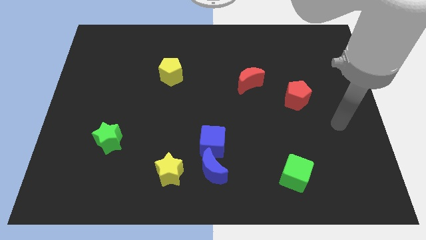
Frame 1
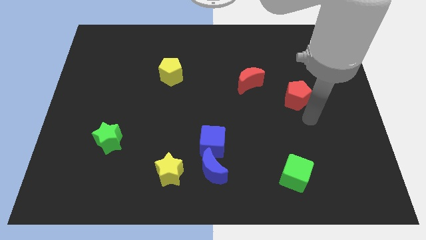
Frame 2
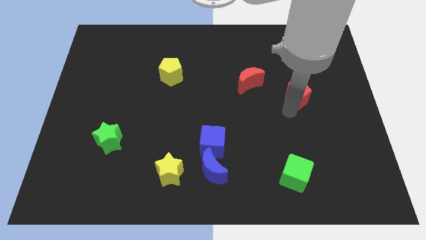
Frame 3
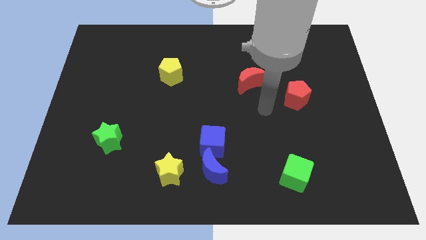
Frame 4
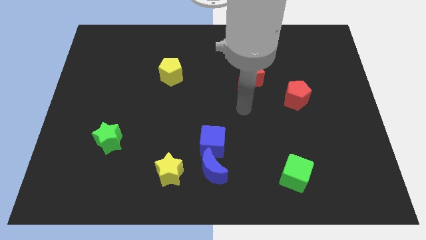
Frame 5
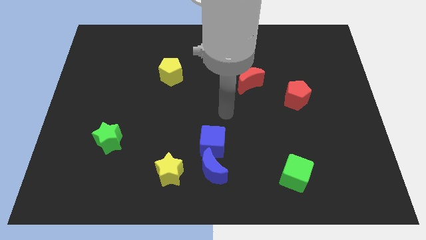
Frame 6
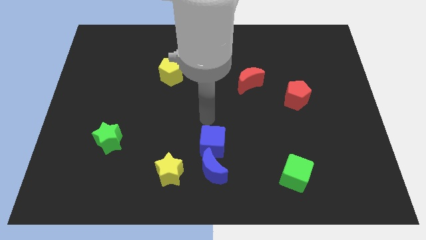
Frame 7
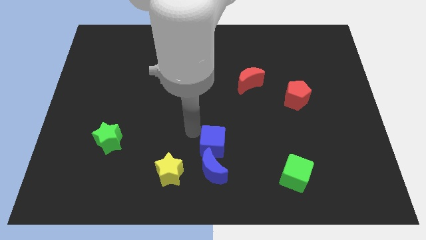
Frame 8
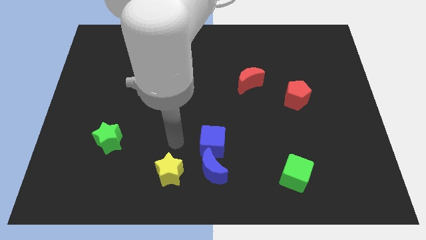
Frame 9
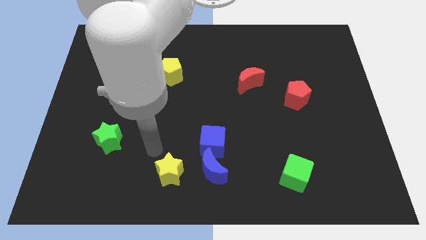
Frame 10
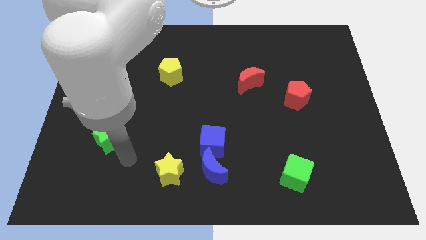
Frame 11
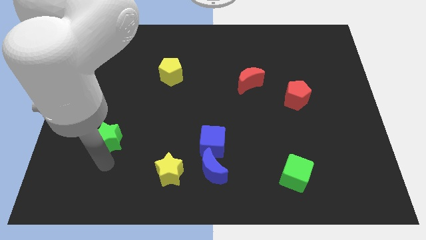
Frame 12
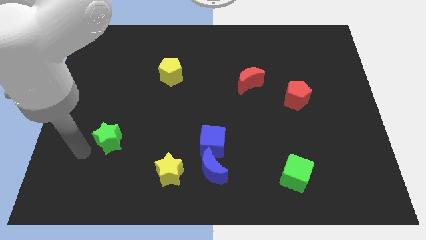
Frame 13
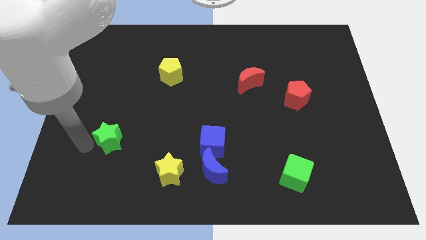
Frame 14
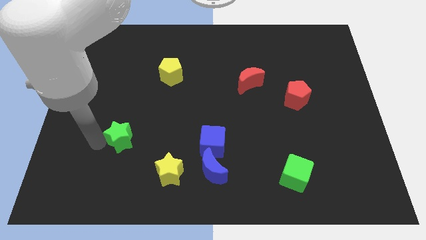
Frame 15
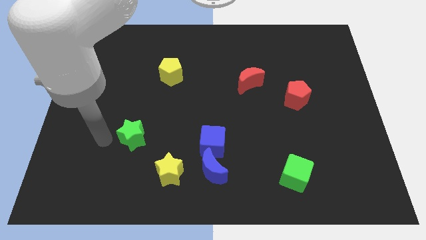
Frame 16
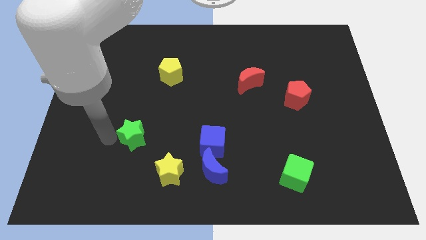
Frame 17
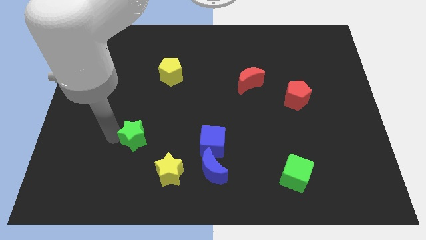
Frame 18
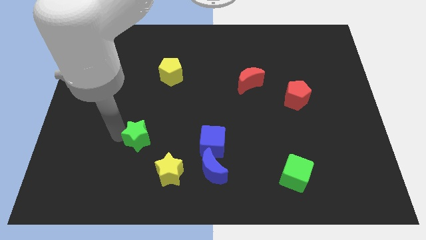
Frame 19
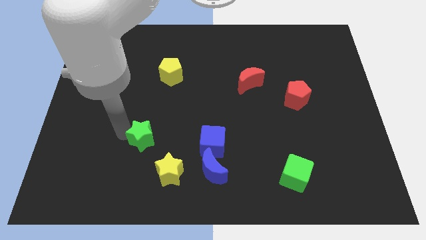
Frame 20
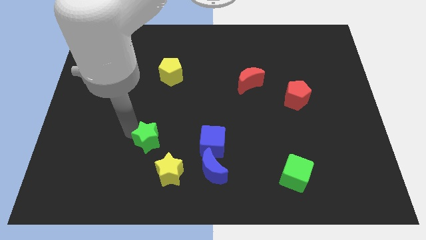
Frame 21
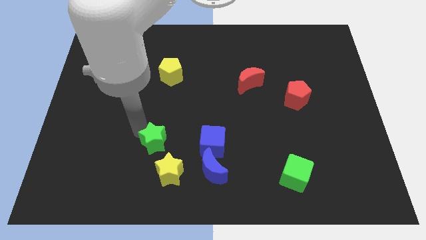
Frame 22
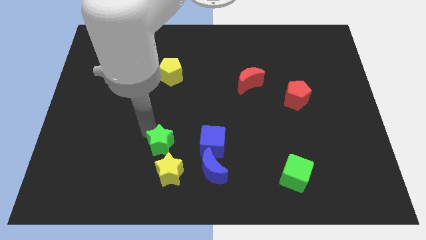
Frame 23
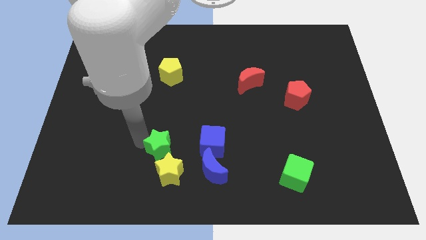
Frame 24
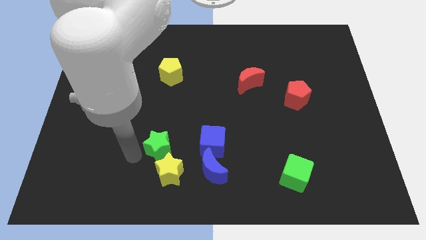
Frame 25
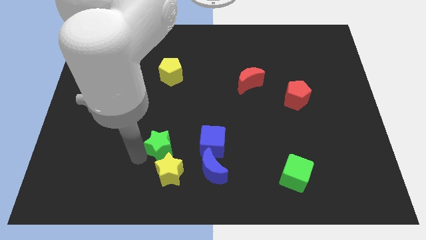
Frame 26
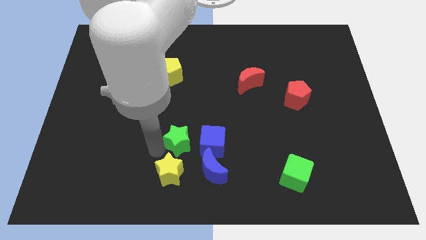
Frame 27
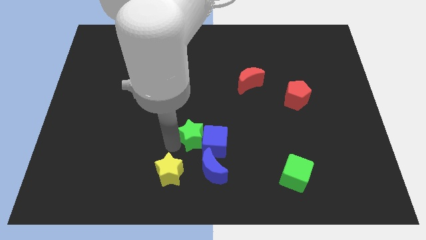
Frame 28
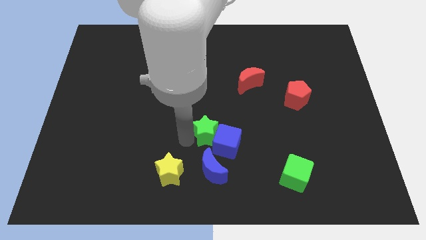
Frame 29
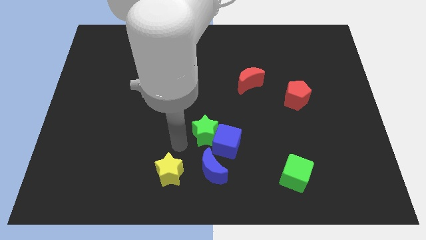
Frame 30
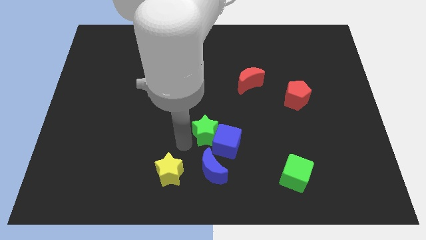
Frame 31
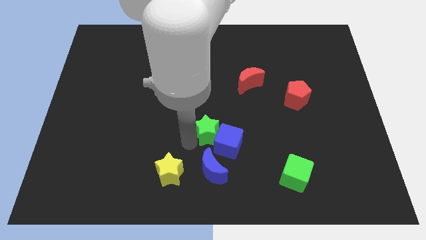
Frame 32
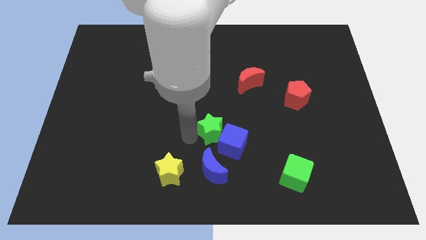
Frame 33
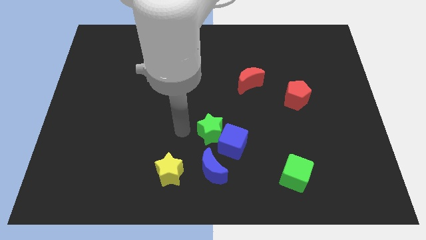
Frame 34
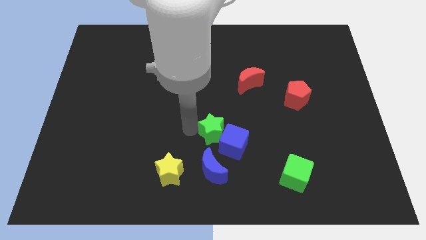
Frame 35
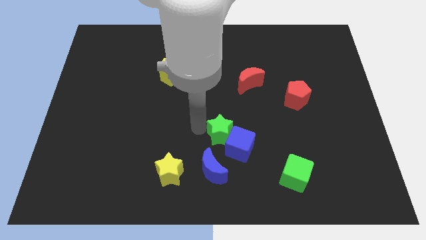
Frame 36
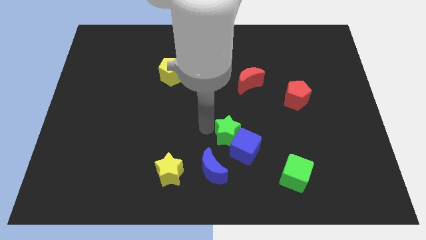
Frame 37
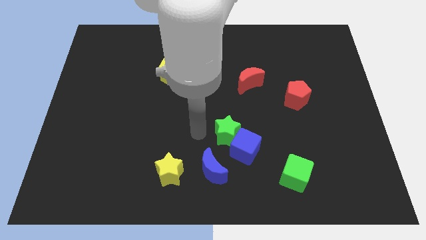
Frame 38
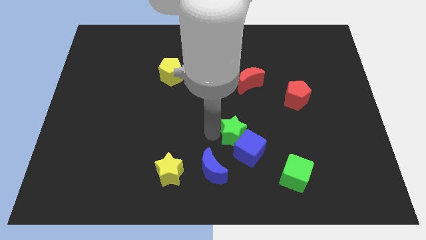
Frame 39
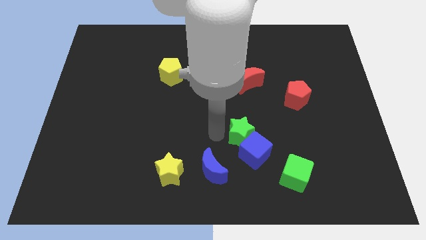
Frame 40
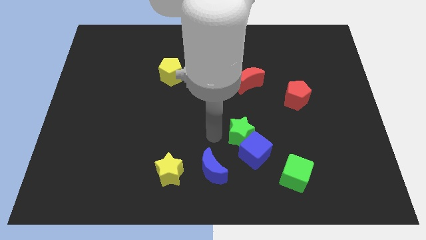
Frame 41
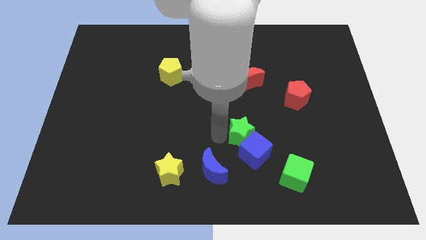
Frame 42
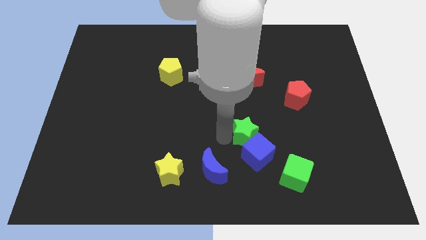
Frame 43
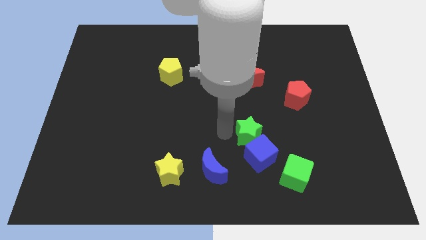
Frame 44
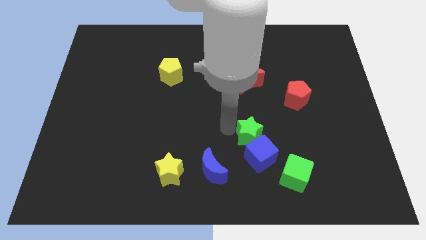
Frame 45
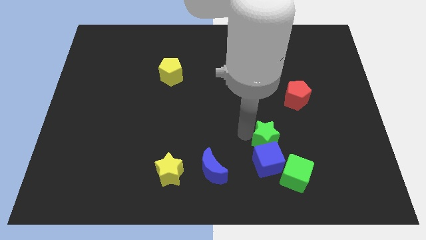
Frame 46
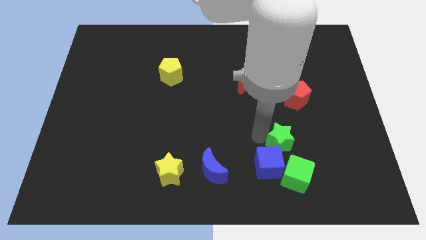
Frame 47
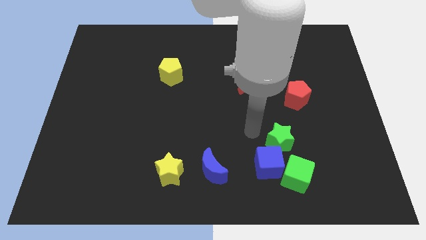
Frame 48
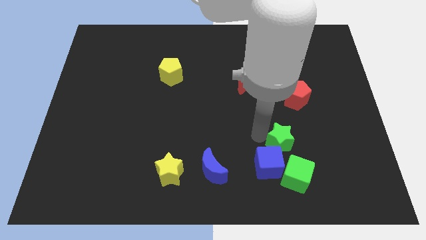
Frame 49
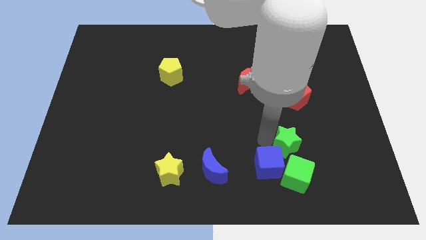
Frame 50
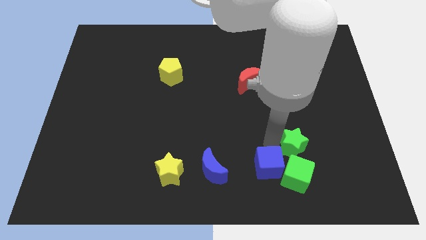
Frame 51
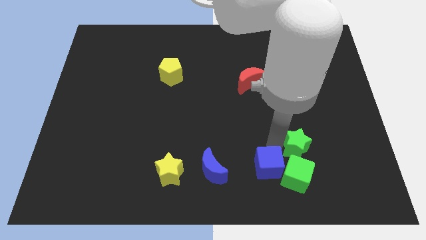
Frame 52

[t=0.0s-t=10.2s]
put the green star diagonally up and to the right of the green cube

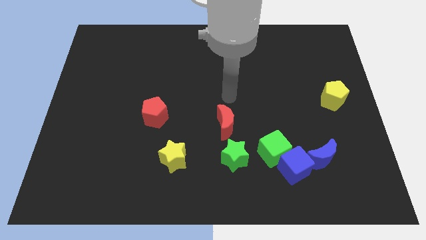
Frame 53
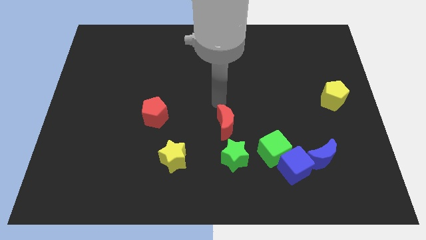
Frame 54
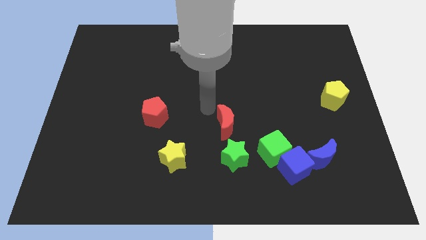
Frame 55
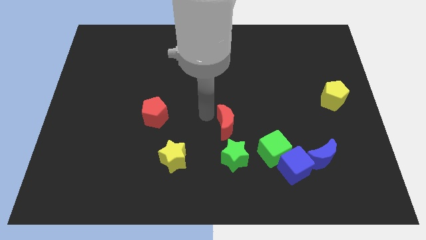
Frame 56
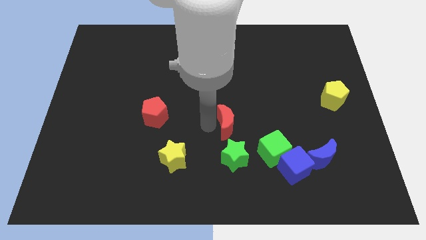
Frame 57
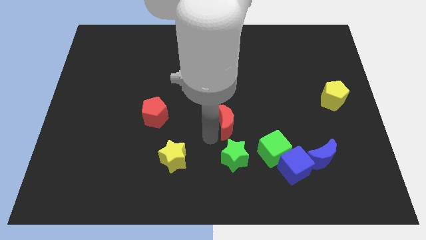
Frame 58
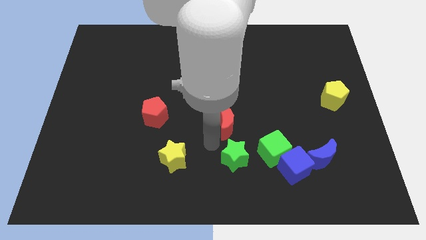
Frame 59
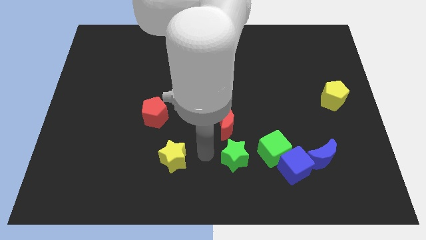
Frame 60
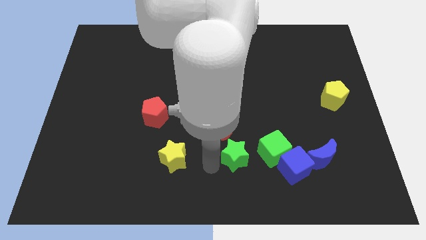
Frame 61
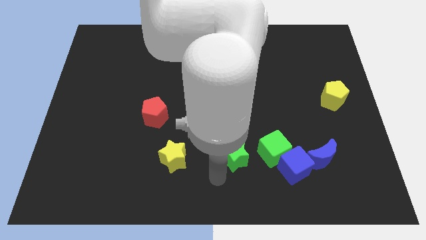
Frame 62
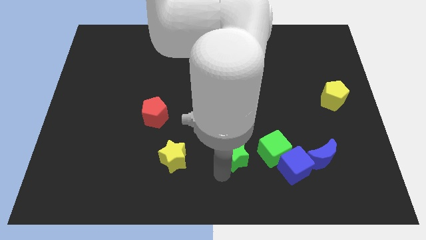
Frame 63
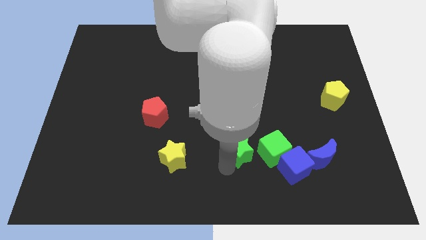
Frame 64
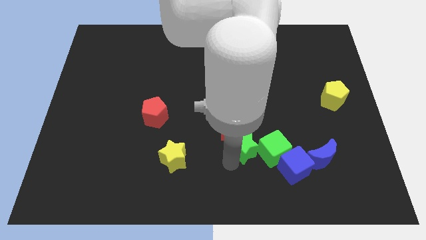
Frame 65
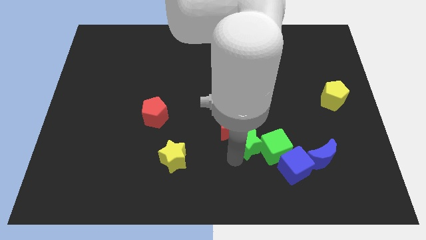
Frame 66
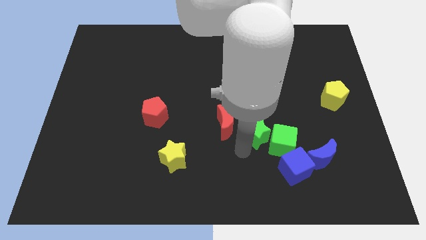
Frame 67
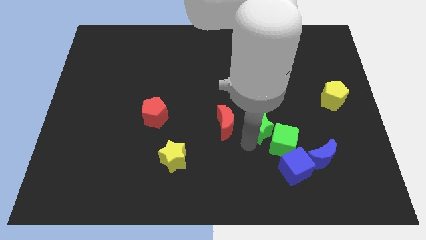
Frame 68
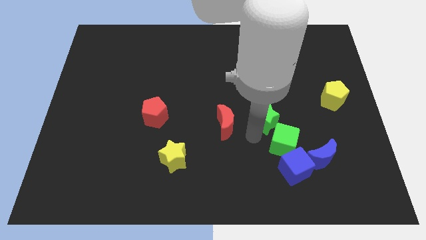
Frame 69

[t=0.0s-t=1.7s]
move the green star to the top side of the green cube

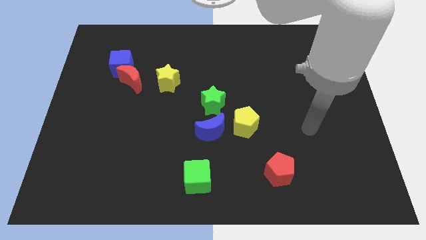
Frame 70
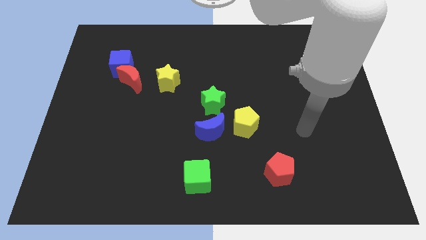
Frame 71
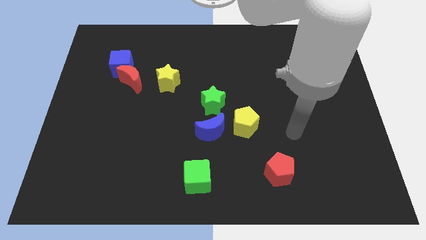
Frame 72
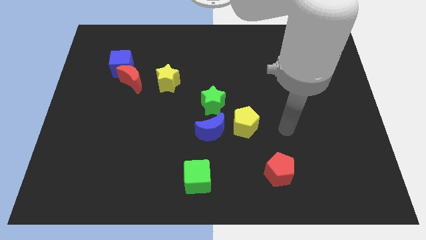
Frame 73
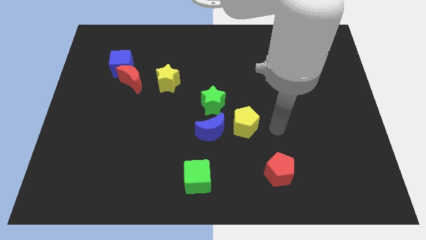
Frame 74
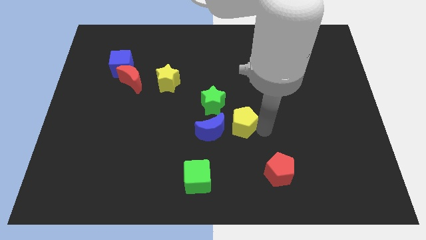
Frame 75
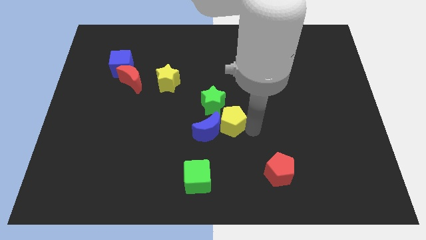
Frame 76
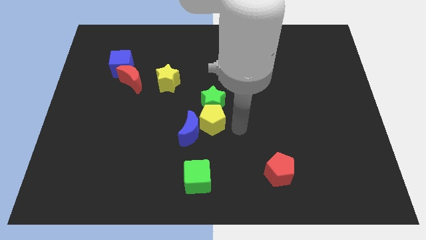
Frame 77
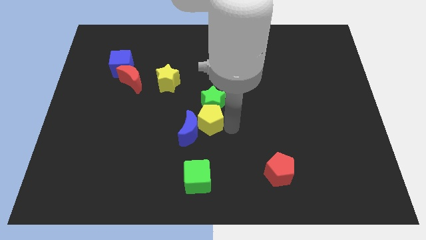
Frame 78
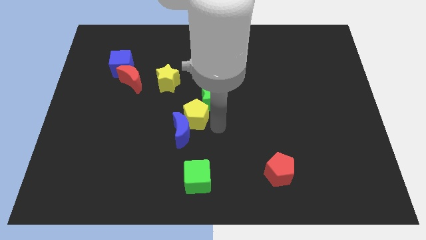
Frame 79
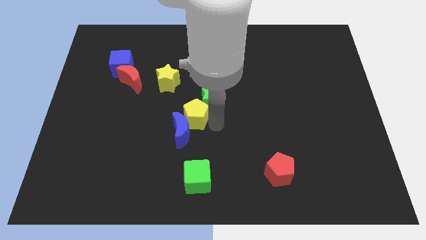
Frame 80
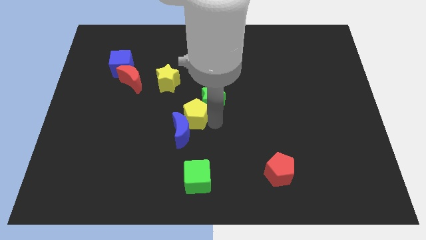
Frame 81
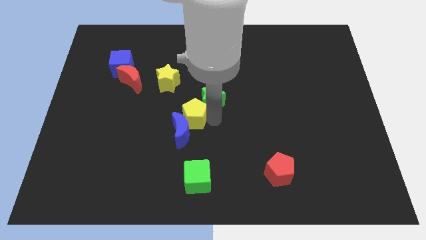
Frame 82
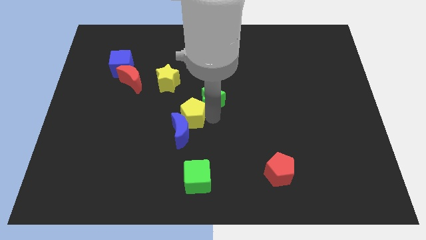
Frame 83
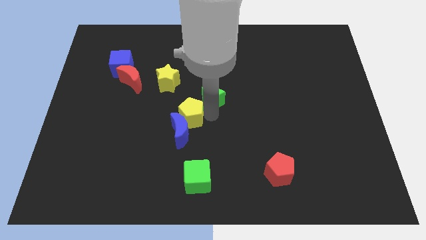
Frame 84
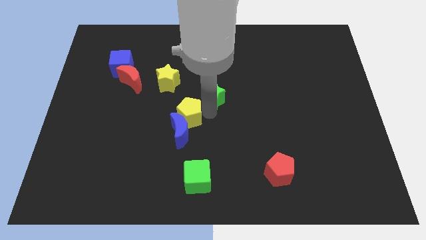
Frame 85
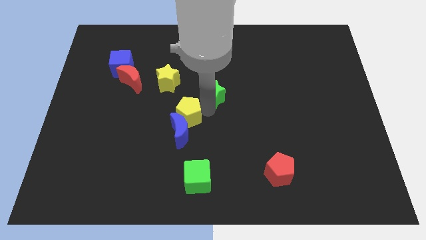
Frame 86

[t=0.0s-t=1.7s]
put the green star right of the yellow star
